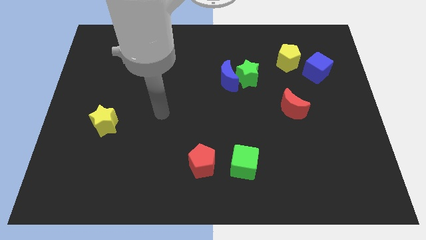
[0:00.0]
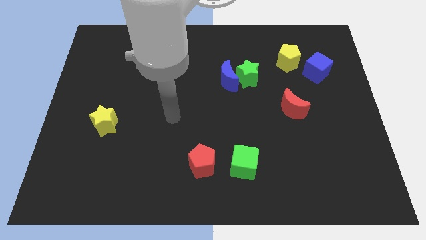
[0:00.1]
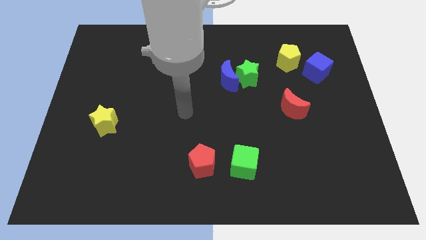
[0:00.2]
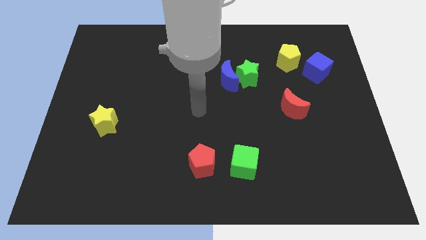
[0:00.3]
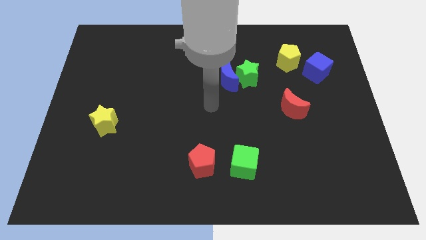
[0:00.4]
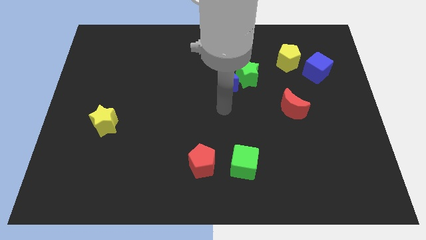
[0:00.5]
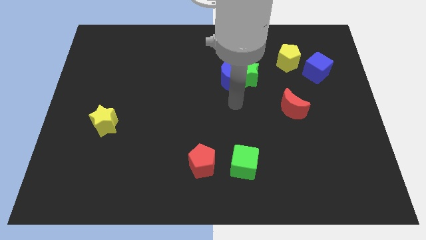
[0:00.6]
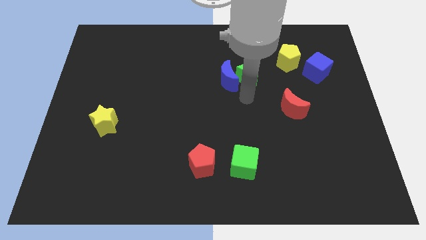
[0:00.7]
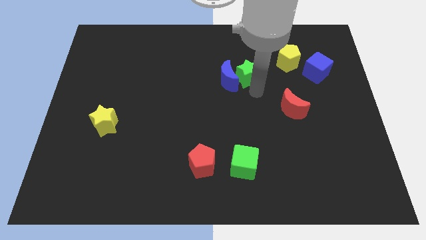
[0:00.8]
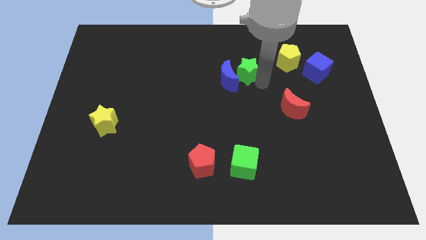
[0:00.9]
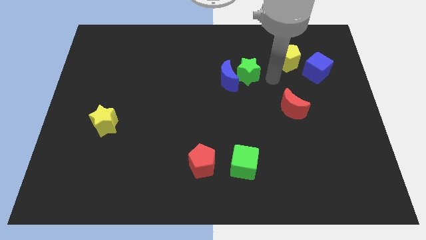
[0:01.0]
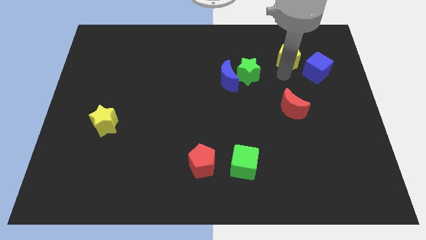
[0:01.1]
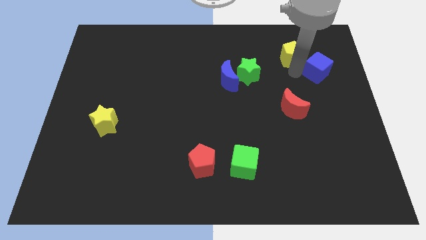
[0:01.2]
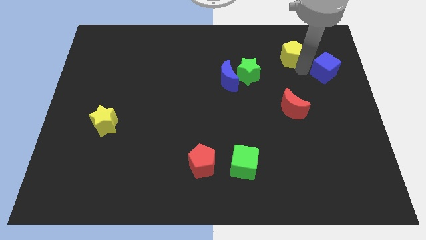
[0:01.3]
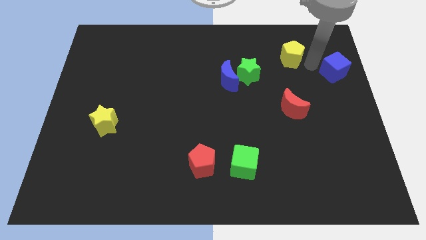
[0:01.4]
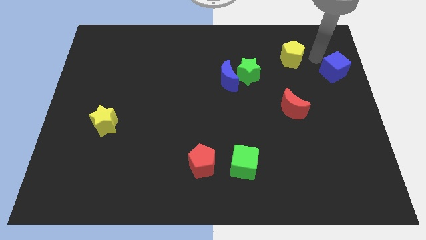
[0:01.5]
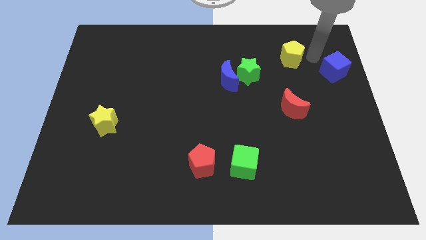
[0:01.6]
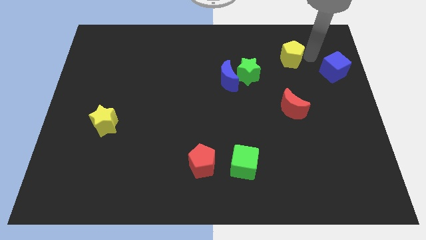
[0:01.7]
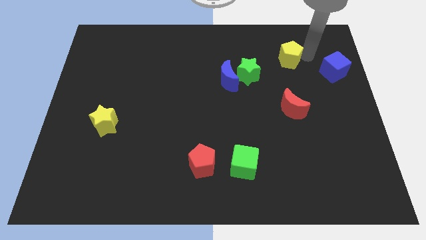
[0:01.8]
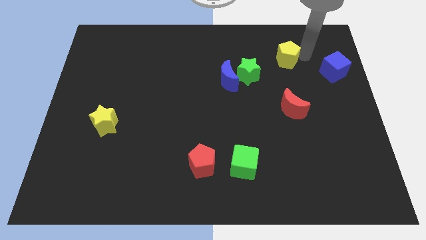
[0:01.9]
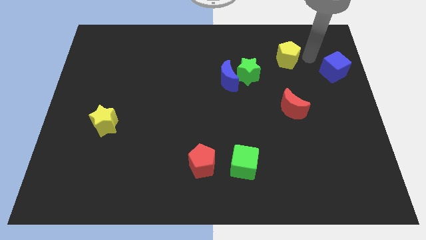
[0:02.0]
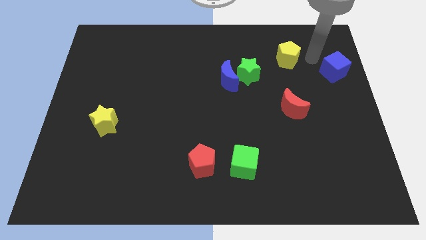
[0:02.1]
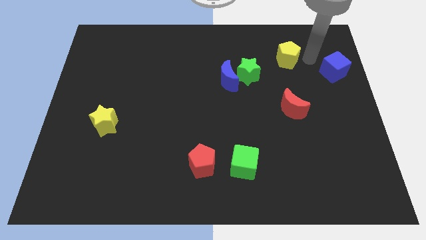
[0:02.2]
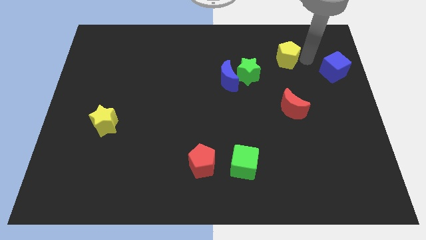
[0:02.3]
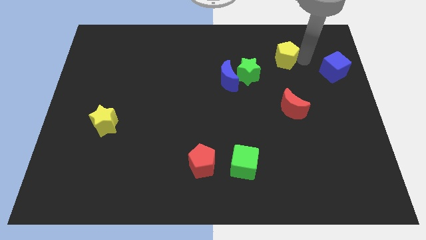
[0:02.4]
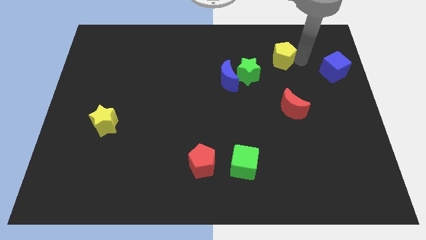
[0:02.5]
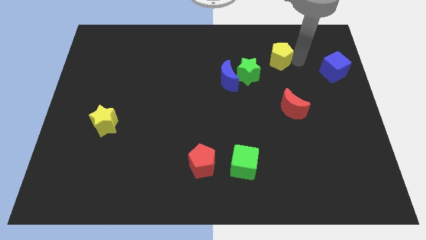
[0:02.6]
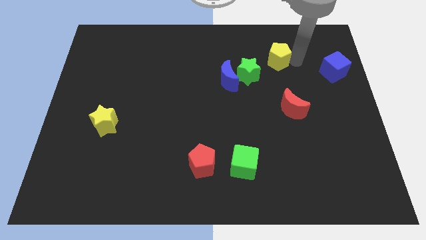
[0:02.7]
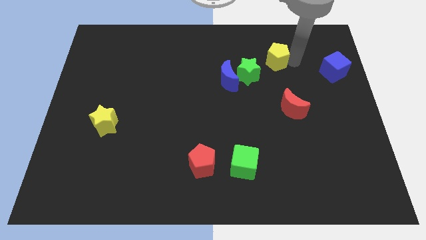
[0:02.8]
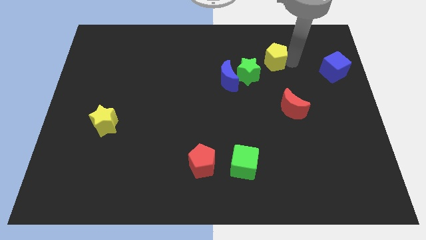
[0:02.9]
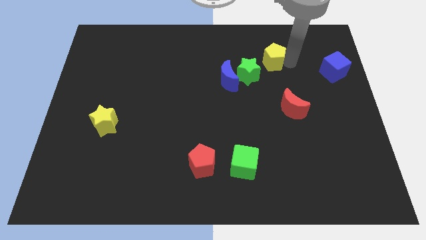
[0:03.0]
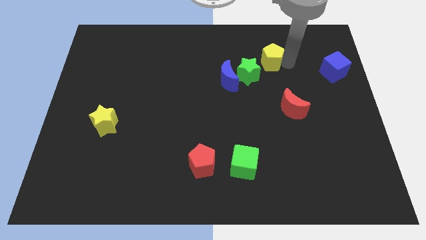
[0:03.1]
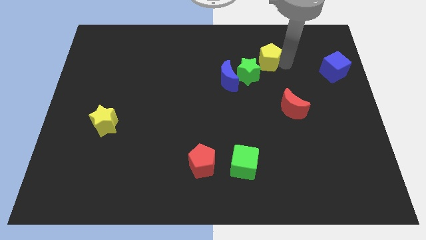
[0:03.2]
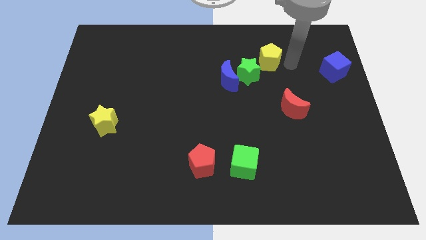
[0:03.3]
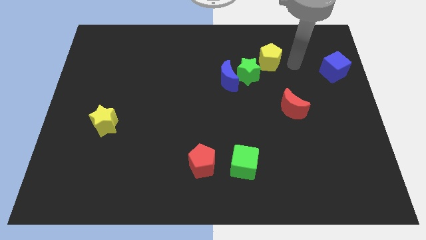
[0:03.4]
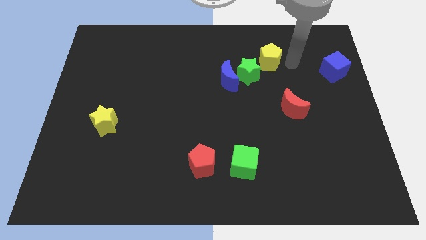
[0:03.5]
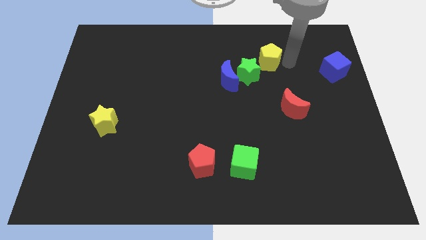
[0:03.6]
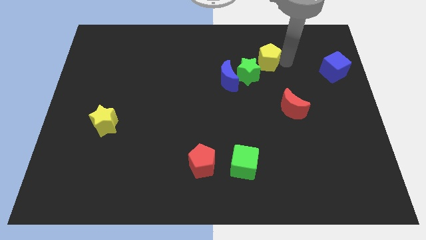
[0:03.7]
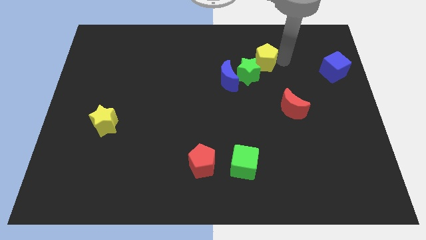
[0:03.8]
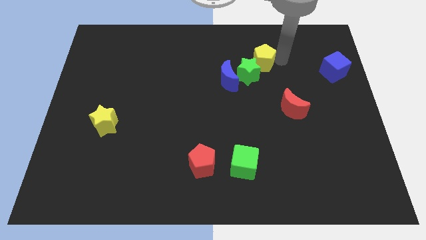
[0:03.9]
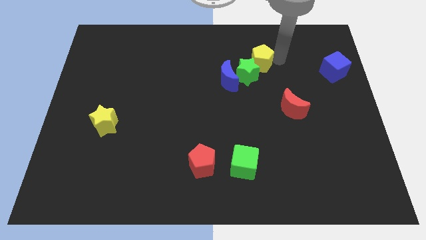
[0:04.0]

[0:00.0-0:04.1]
slightly push the yellow pentagon left

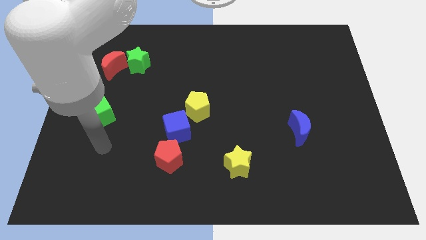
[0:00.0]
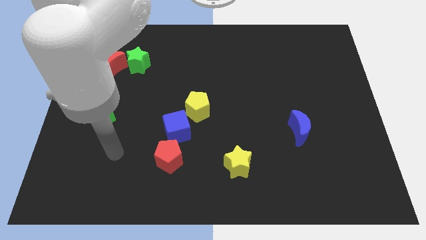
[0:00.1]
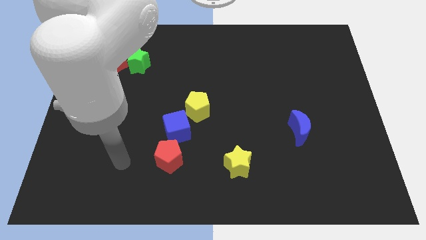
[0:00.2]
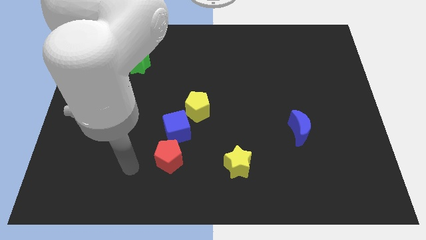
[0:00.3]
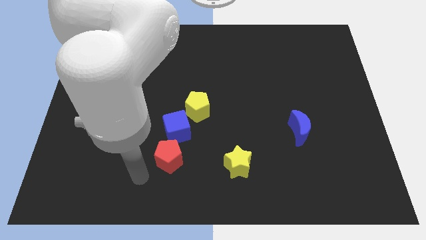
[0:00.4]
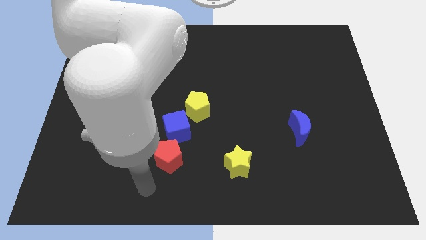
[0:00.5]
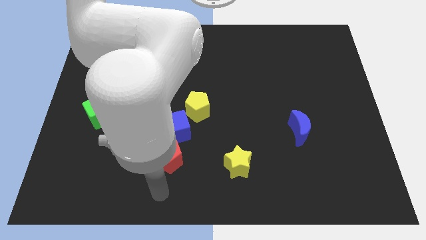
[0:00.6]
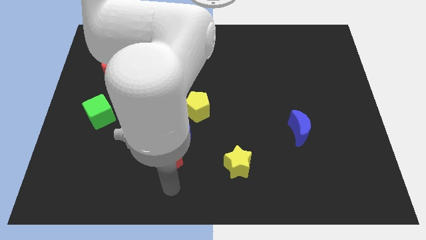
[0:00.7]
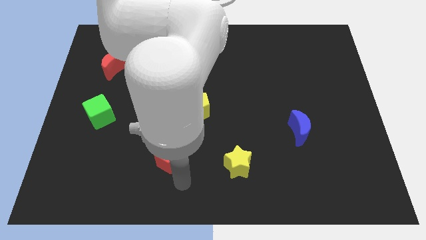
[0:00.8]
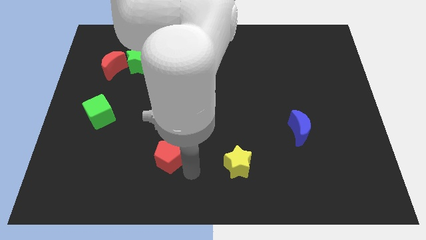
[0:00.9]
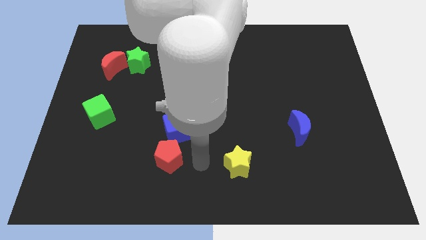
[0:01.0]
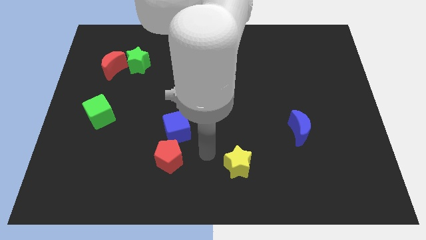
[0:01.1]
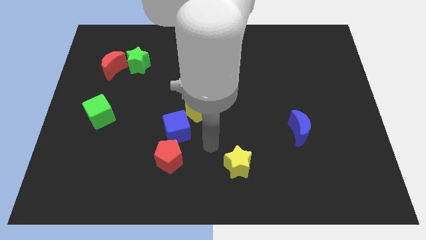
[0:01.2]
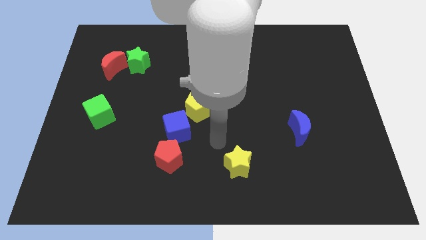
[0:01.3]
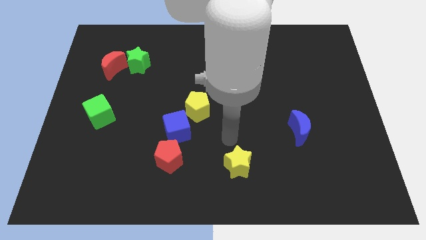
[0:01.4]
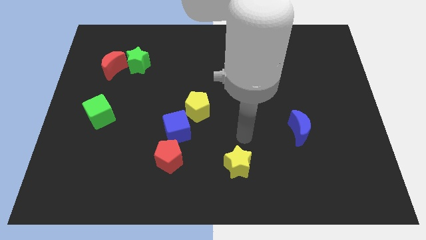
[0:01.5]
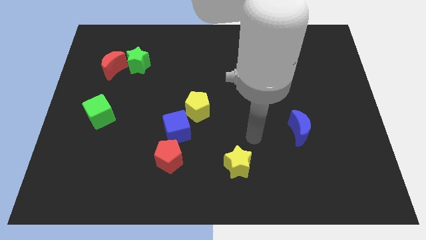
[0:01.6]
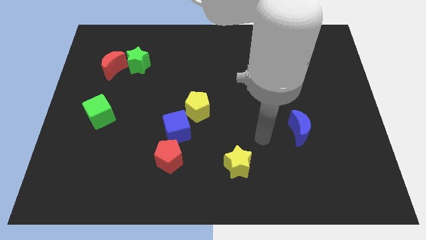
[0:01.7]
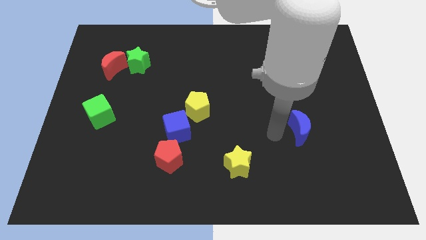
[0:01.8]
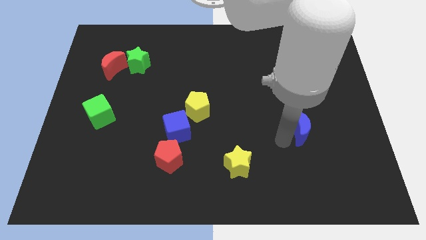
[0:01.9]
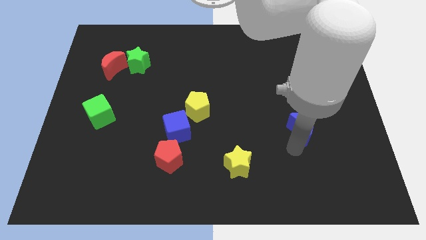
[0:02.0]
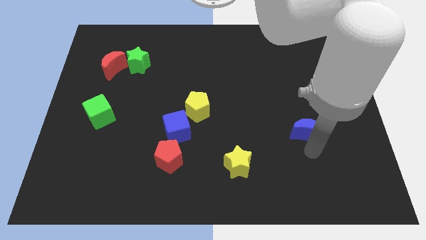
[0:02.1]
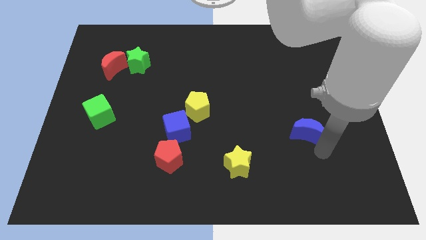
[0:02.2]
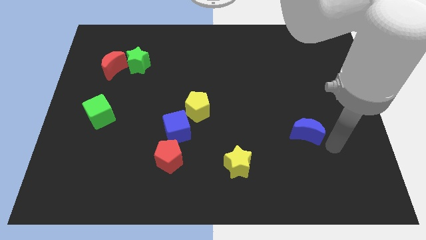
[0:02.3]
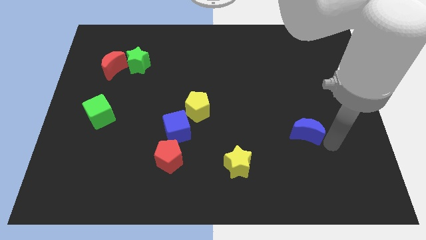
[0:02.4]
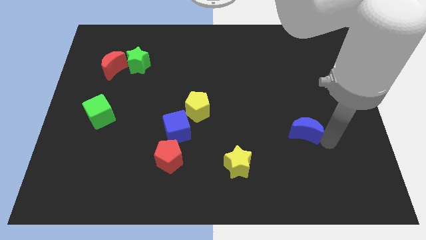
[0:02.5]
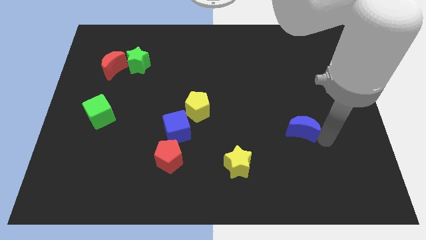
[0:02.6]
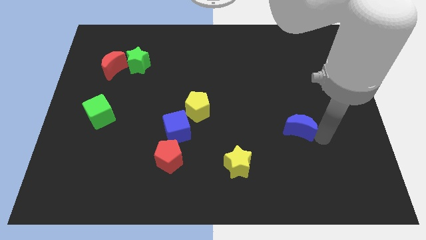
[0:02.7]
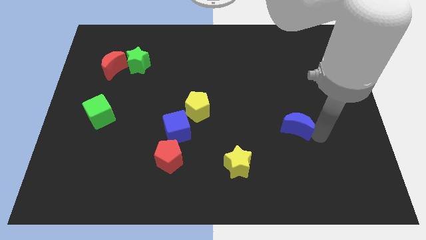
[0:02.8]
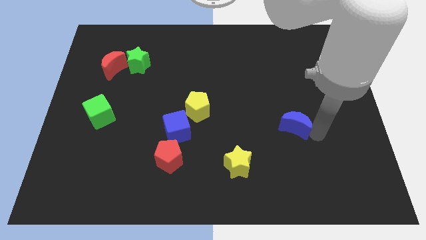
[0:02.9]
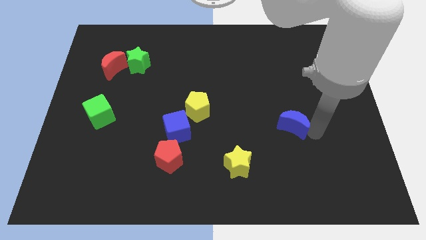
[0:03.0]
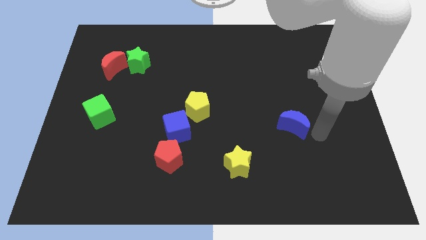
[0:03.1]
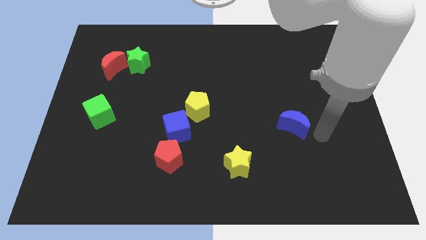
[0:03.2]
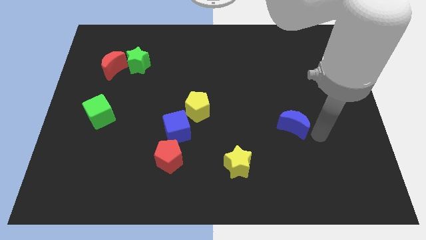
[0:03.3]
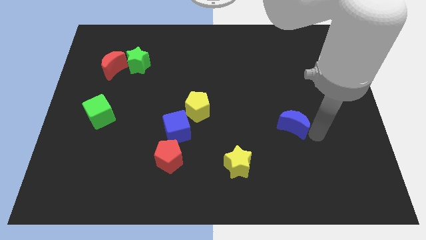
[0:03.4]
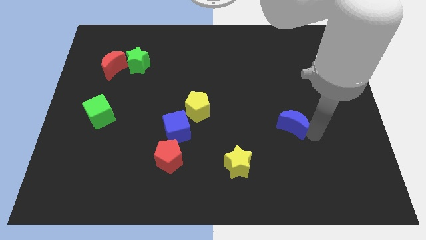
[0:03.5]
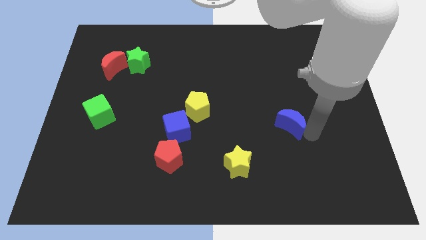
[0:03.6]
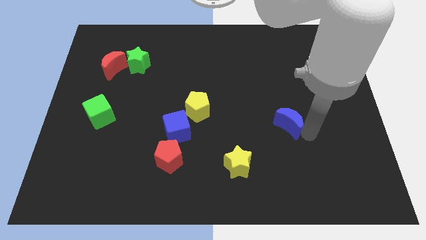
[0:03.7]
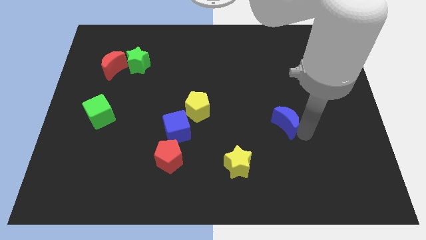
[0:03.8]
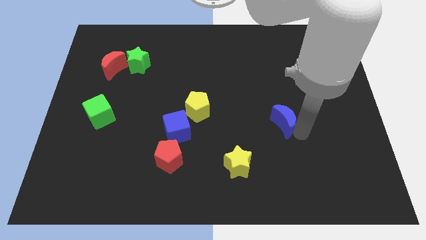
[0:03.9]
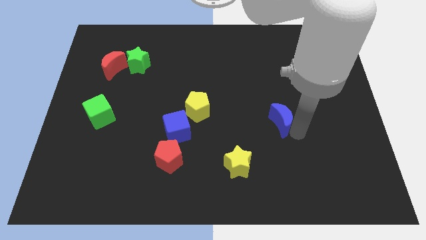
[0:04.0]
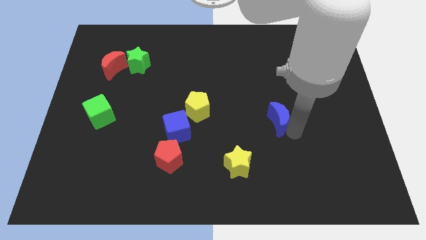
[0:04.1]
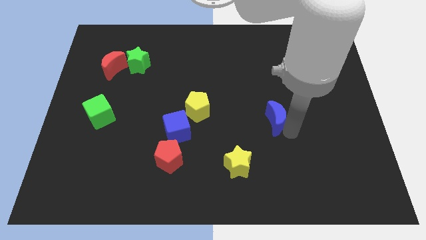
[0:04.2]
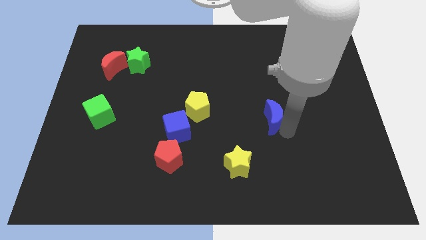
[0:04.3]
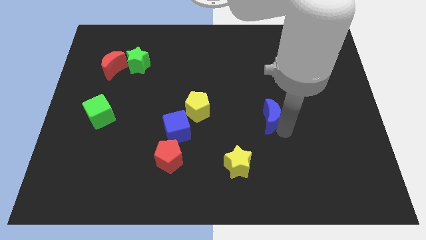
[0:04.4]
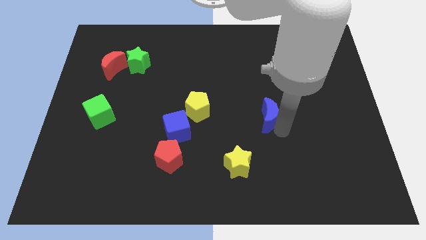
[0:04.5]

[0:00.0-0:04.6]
push the blue moon up and then left a bit
